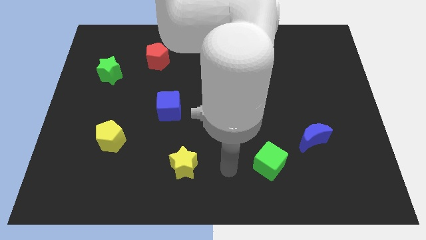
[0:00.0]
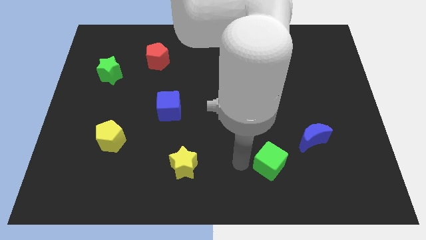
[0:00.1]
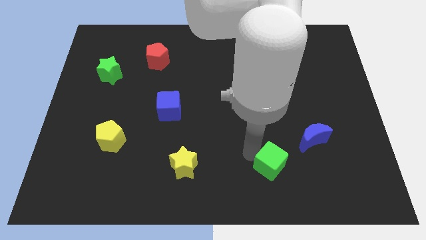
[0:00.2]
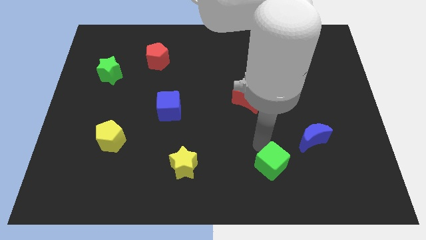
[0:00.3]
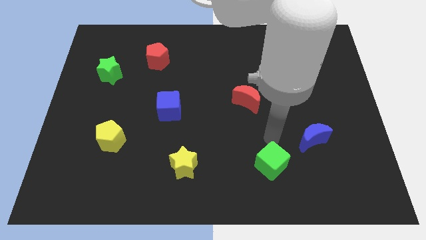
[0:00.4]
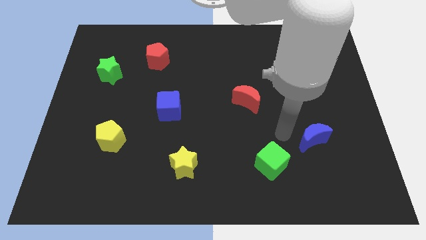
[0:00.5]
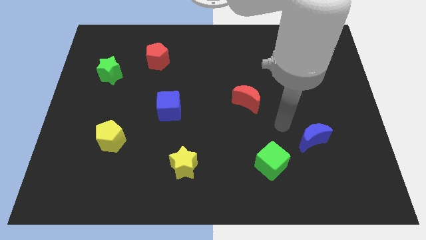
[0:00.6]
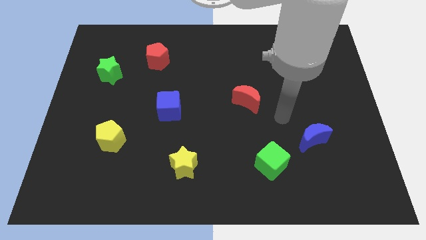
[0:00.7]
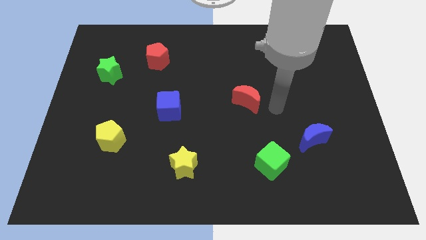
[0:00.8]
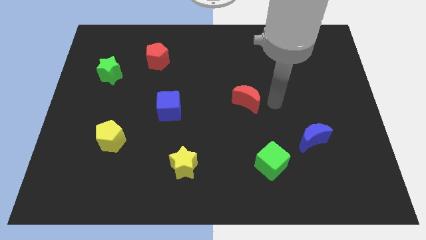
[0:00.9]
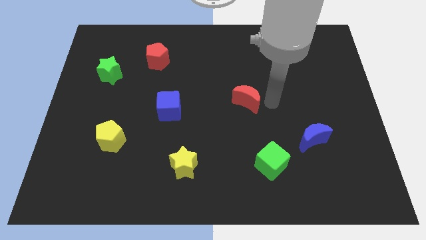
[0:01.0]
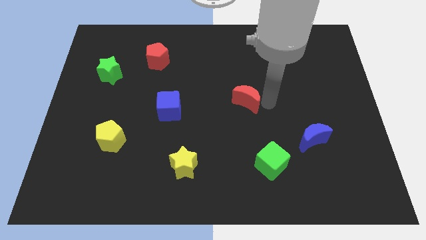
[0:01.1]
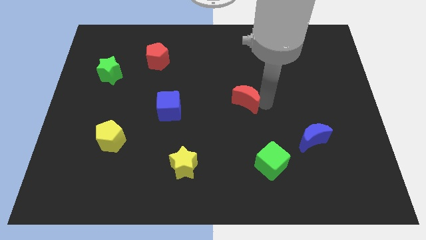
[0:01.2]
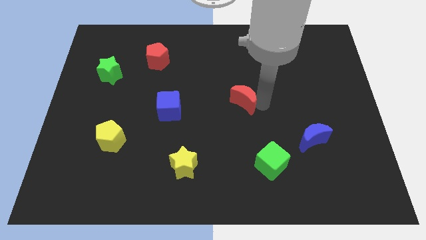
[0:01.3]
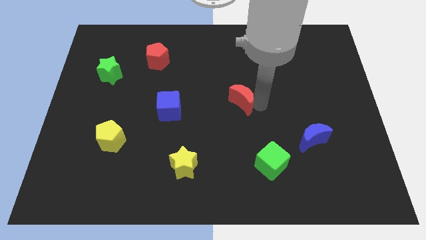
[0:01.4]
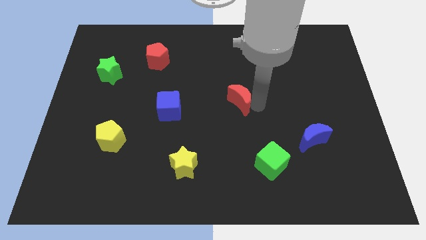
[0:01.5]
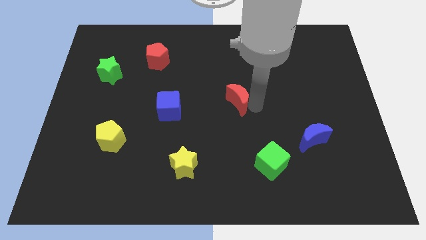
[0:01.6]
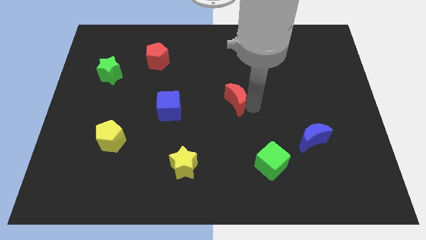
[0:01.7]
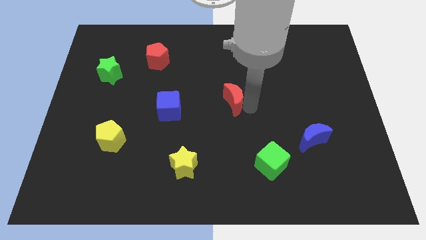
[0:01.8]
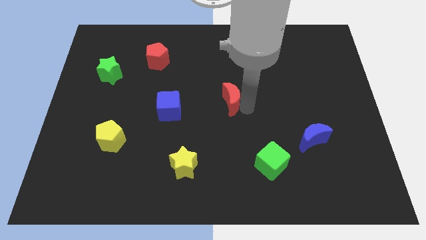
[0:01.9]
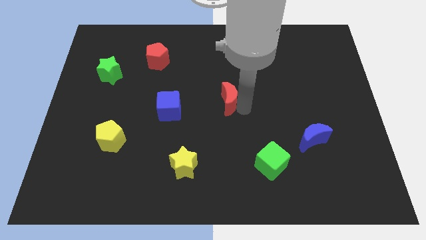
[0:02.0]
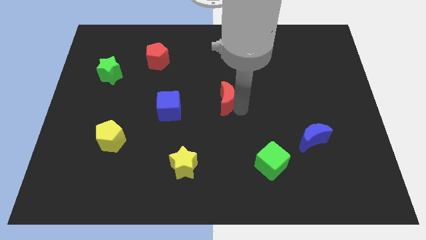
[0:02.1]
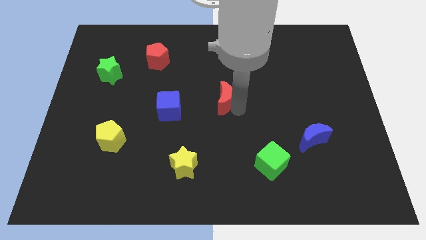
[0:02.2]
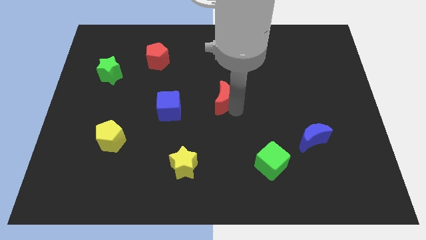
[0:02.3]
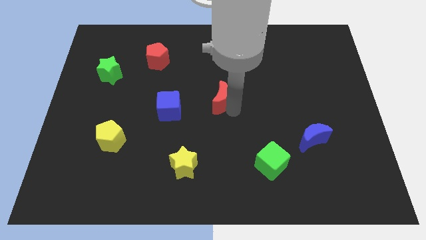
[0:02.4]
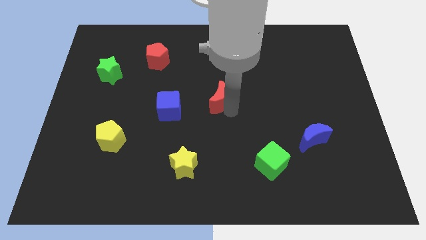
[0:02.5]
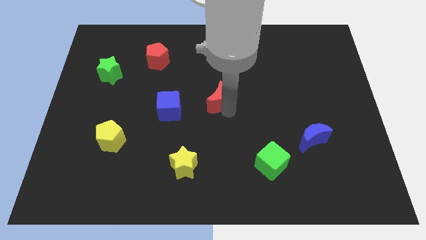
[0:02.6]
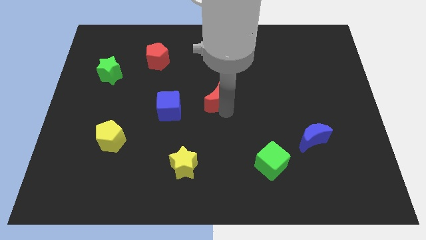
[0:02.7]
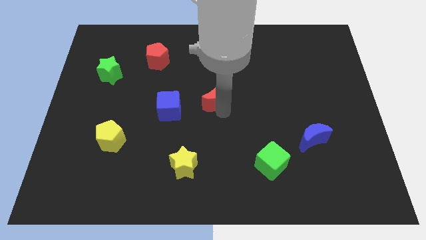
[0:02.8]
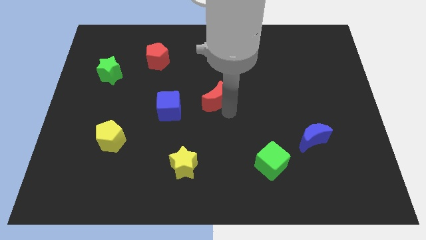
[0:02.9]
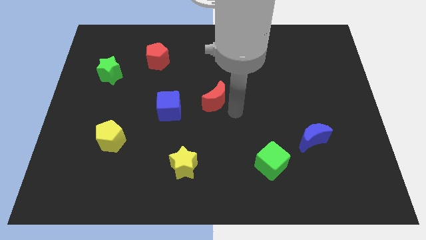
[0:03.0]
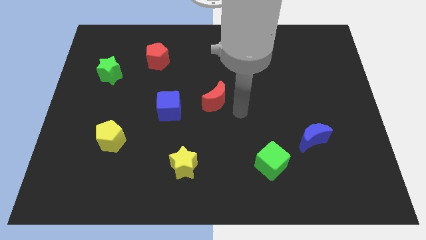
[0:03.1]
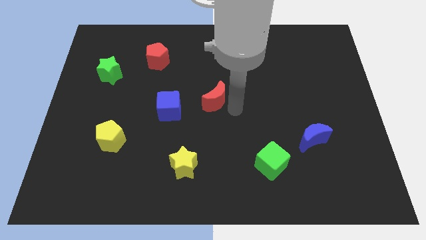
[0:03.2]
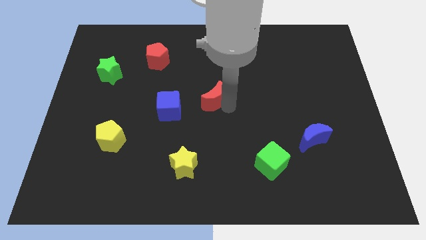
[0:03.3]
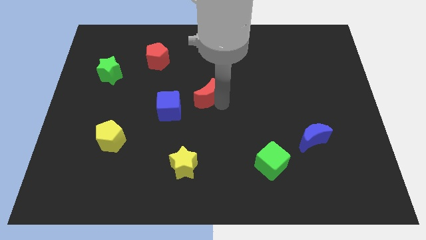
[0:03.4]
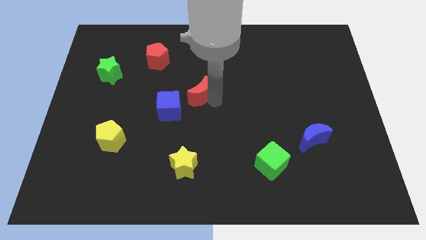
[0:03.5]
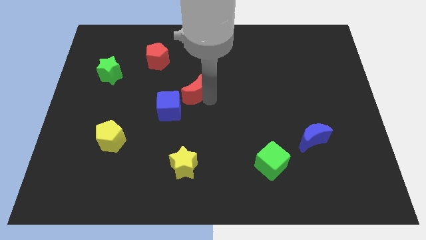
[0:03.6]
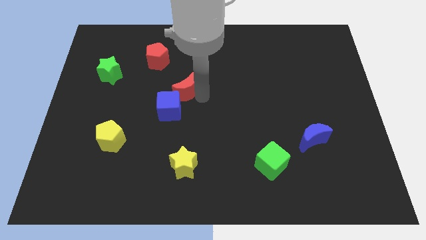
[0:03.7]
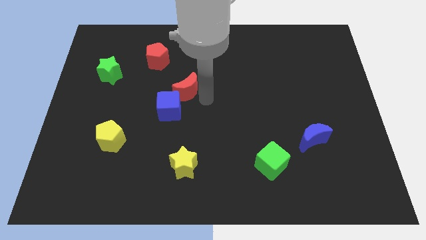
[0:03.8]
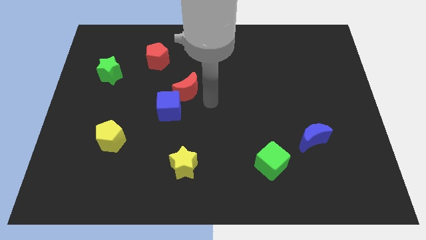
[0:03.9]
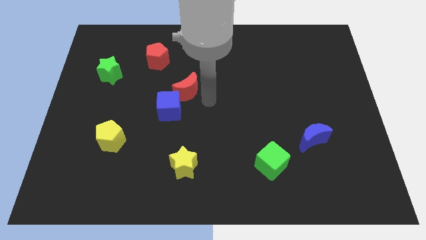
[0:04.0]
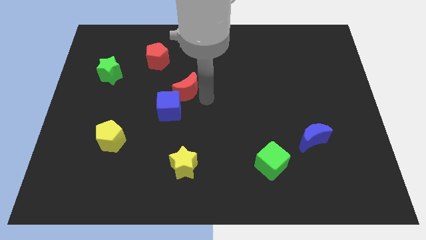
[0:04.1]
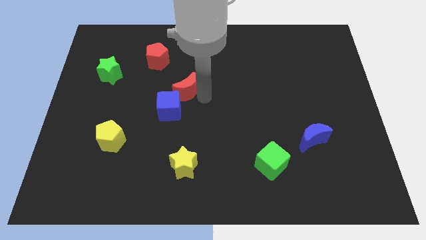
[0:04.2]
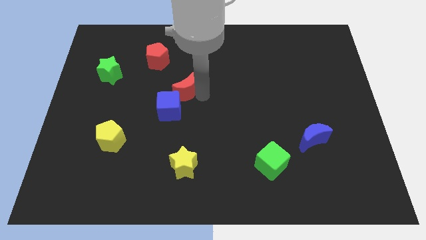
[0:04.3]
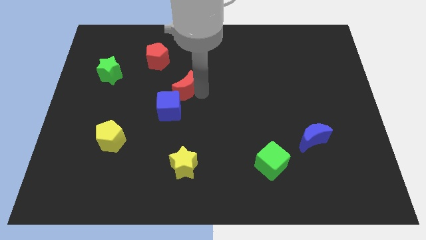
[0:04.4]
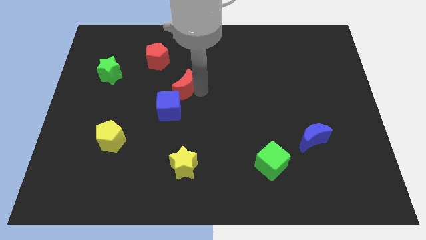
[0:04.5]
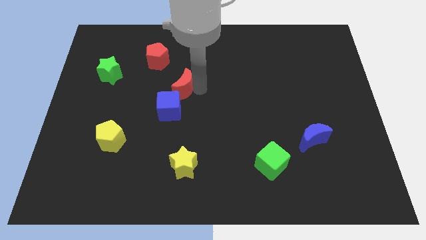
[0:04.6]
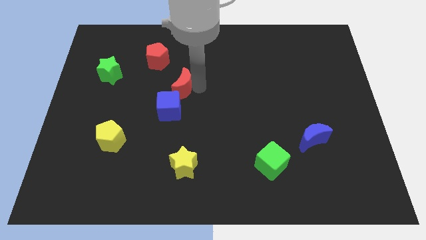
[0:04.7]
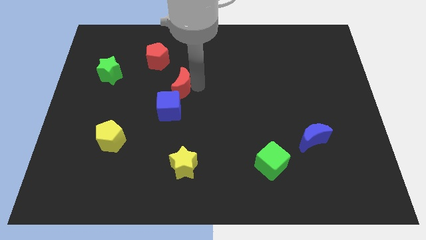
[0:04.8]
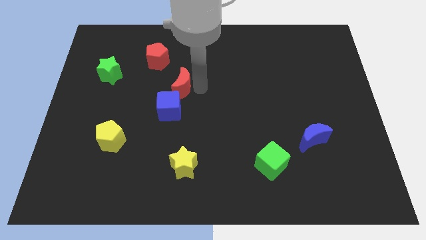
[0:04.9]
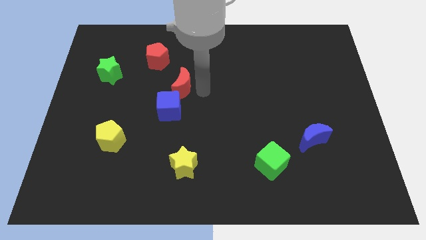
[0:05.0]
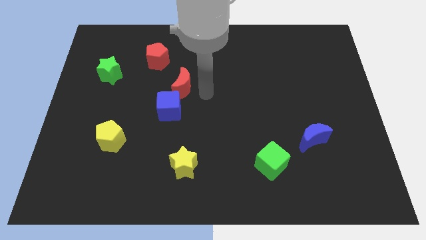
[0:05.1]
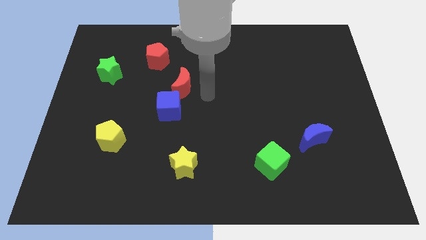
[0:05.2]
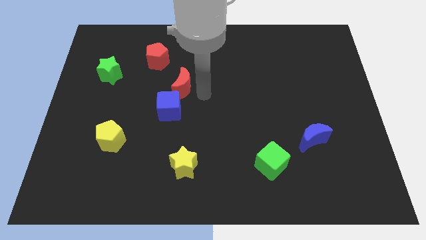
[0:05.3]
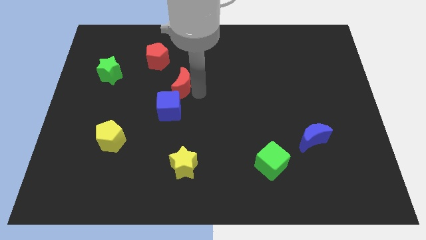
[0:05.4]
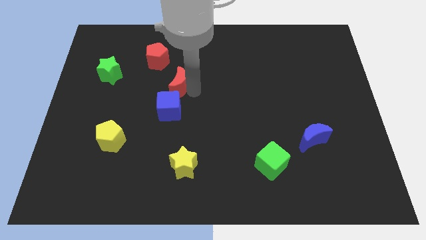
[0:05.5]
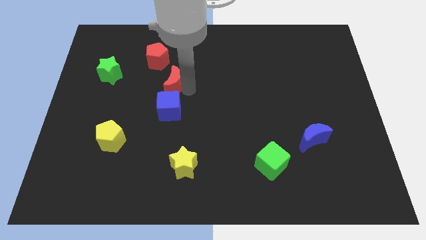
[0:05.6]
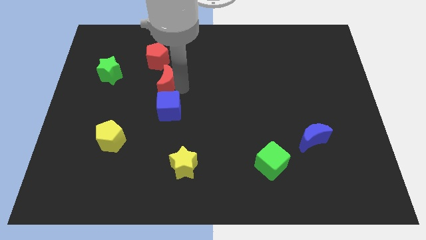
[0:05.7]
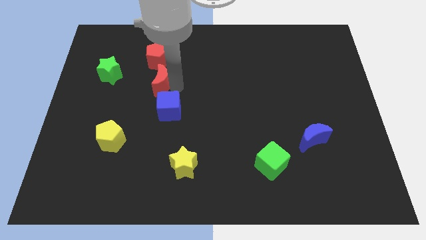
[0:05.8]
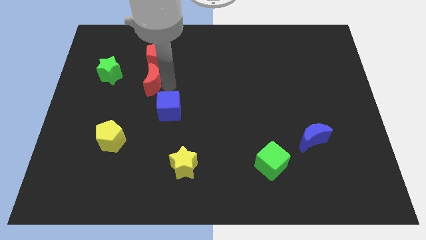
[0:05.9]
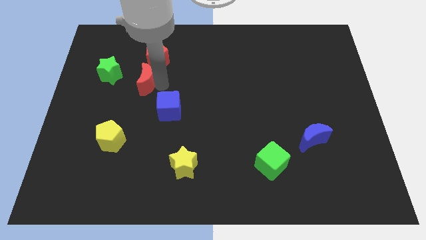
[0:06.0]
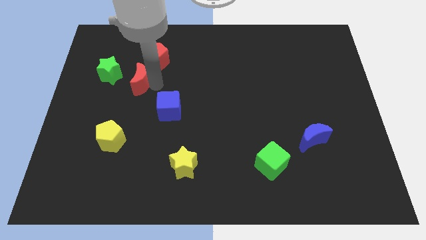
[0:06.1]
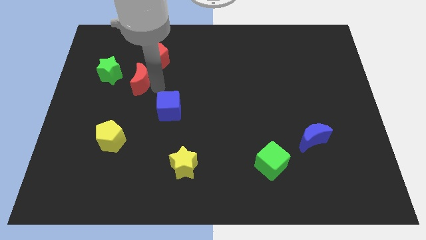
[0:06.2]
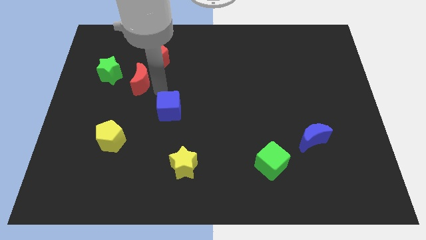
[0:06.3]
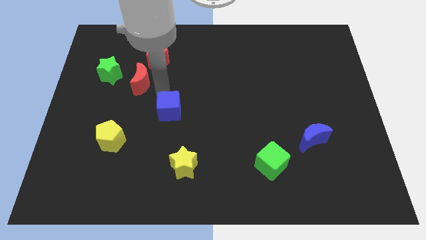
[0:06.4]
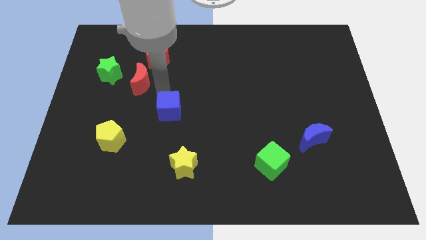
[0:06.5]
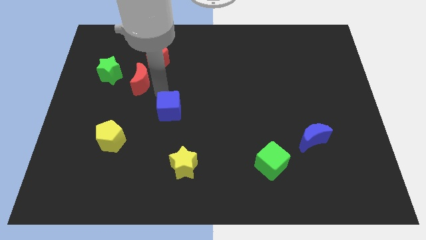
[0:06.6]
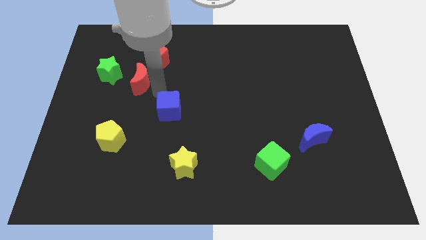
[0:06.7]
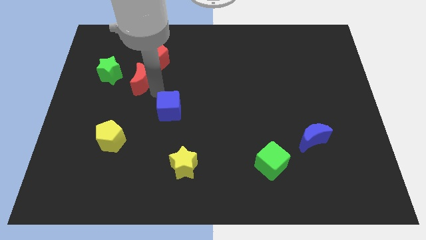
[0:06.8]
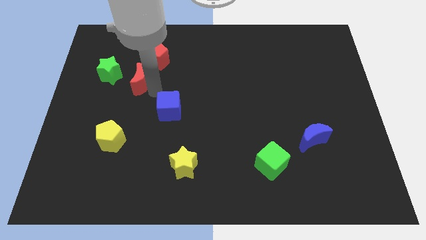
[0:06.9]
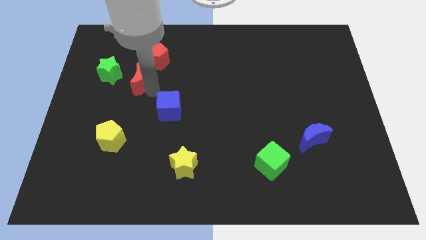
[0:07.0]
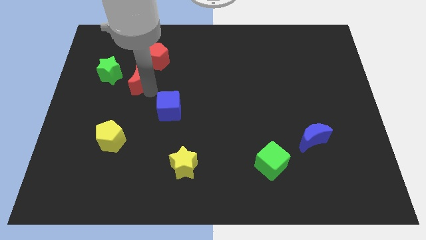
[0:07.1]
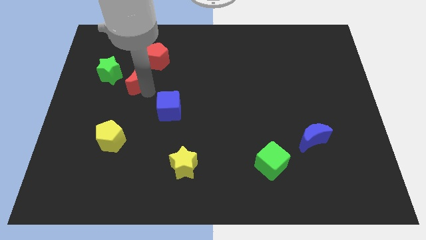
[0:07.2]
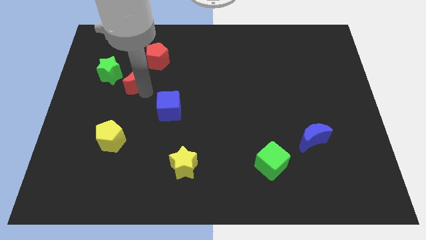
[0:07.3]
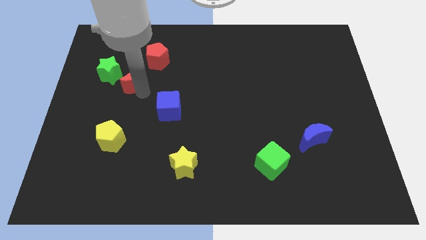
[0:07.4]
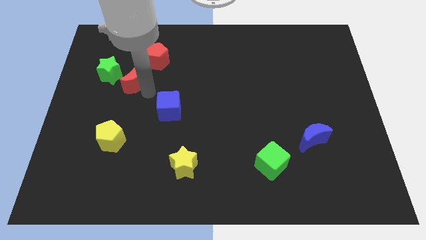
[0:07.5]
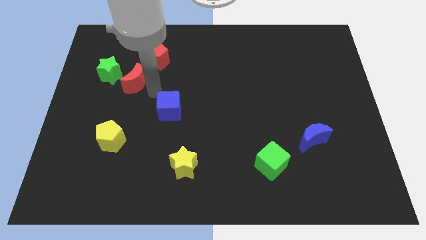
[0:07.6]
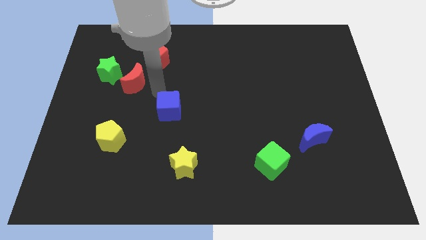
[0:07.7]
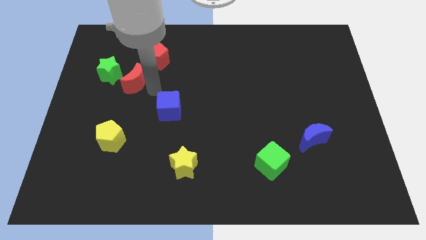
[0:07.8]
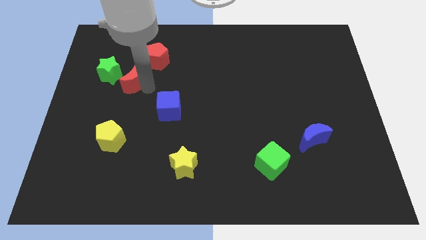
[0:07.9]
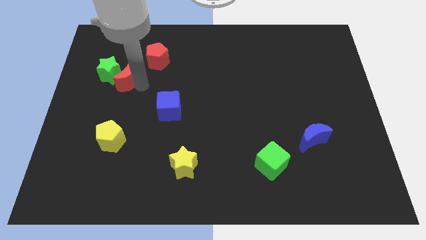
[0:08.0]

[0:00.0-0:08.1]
put the red moon next to the green star
